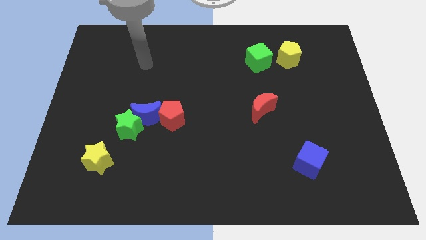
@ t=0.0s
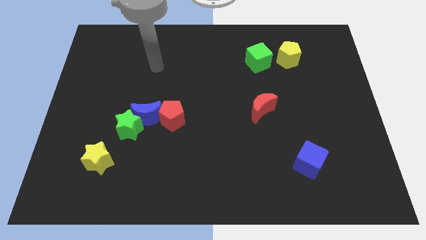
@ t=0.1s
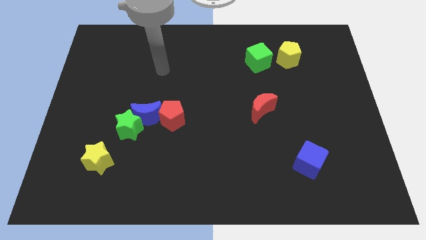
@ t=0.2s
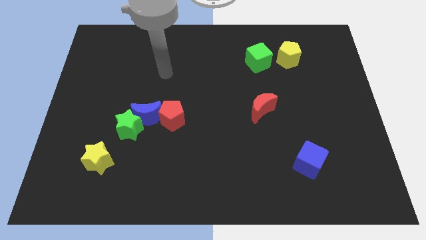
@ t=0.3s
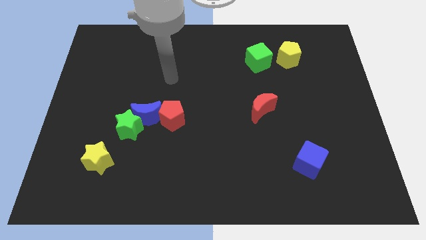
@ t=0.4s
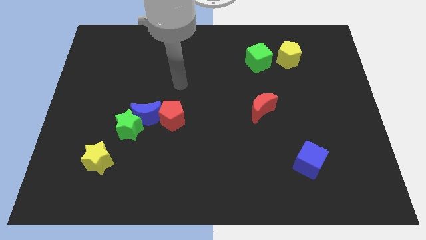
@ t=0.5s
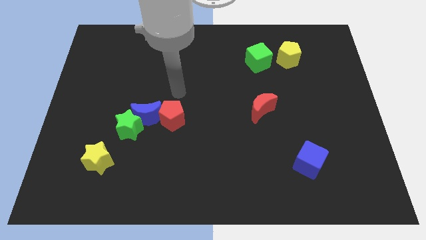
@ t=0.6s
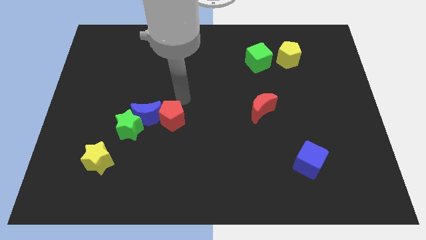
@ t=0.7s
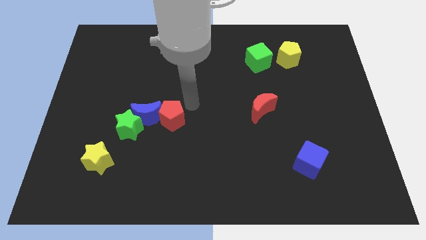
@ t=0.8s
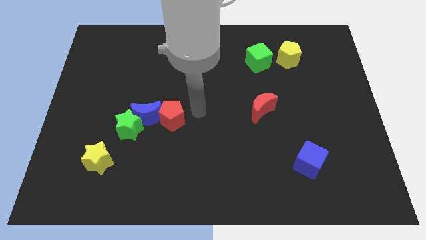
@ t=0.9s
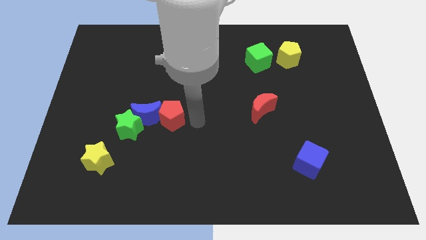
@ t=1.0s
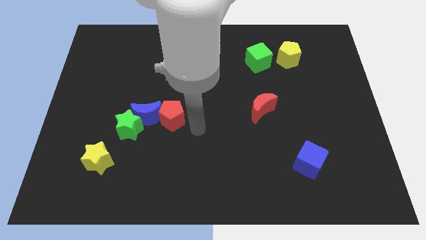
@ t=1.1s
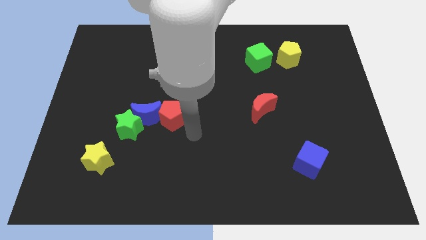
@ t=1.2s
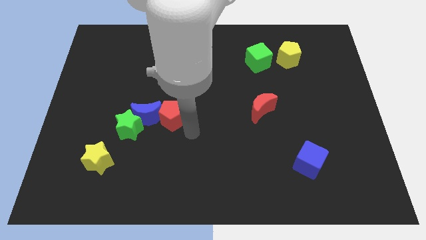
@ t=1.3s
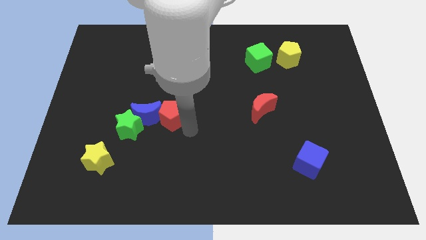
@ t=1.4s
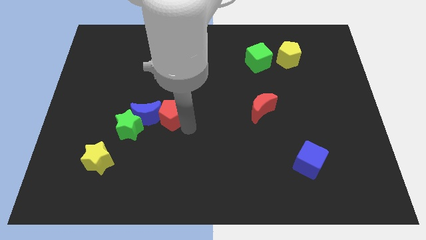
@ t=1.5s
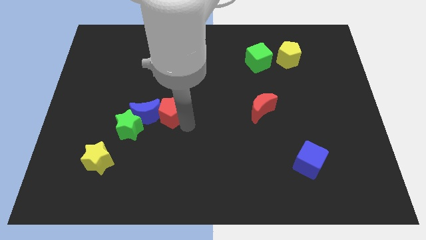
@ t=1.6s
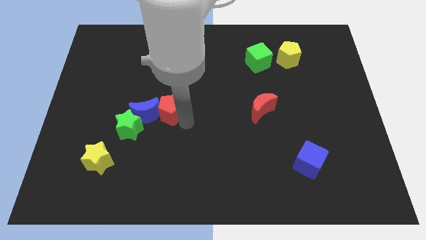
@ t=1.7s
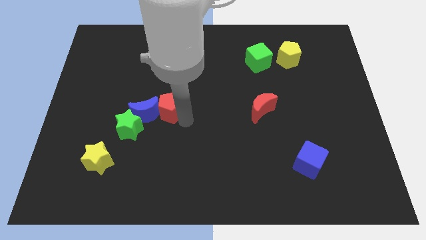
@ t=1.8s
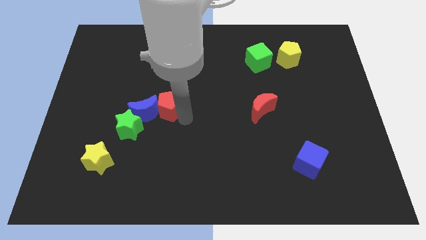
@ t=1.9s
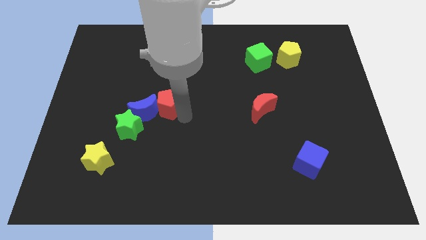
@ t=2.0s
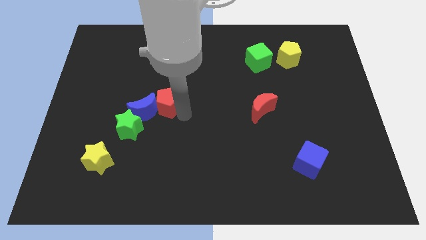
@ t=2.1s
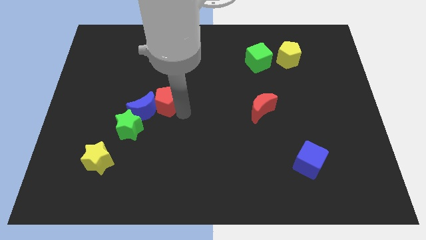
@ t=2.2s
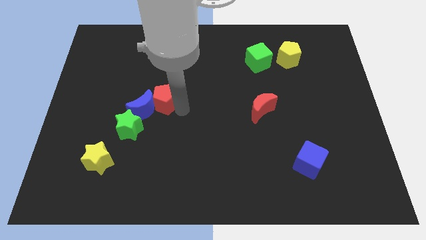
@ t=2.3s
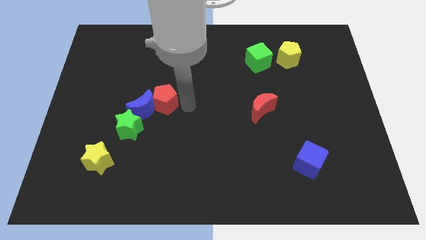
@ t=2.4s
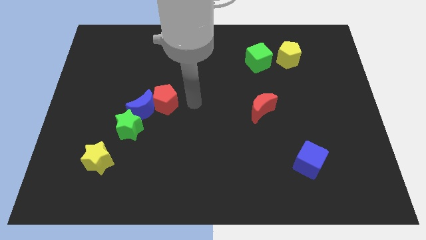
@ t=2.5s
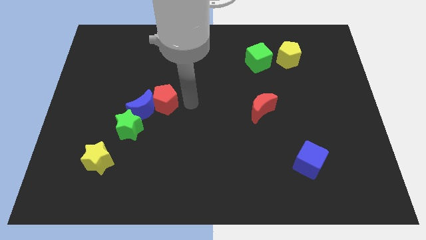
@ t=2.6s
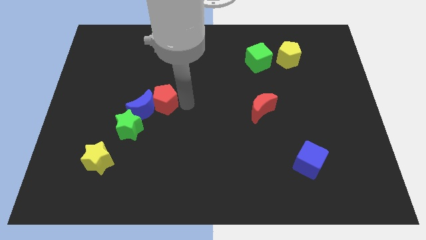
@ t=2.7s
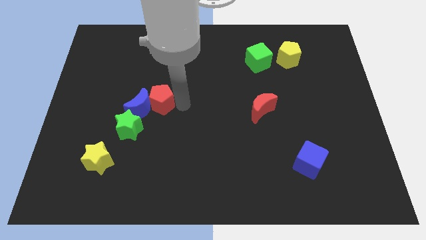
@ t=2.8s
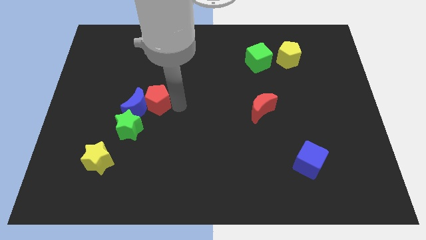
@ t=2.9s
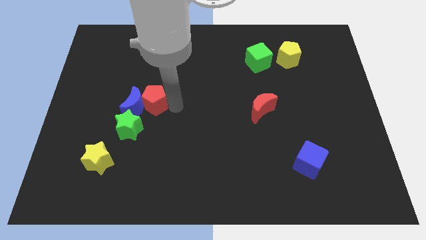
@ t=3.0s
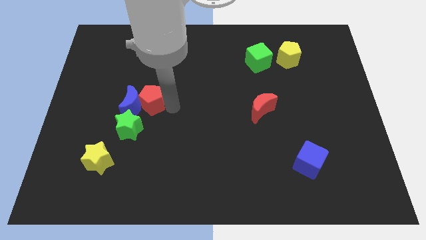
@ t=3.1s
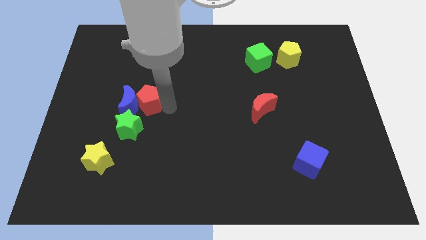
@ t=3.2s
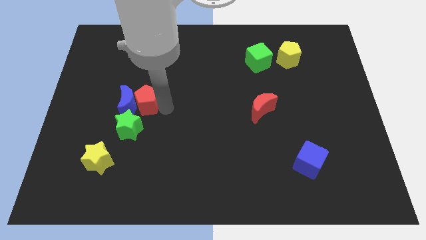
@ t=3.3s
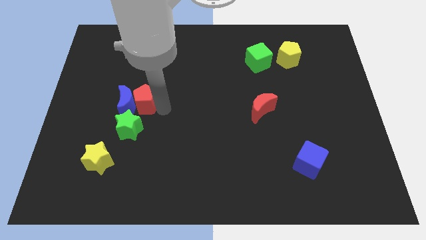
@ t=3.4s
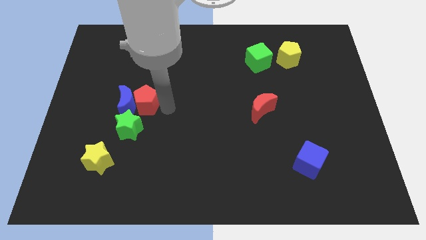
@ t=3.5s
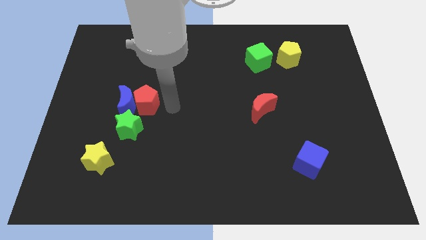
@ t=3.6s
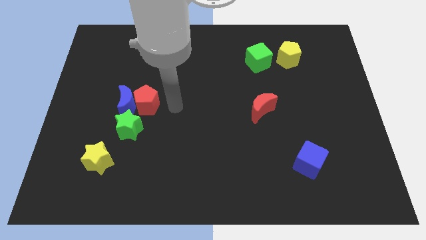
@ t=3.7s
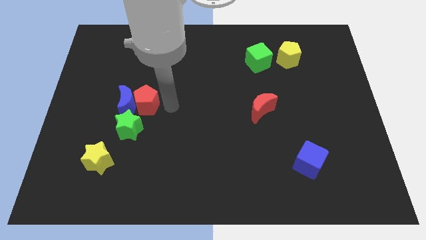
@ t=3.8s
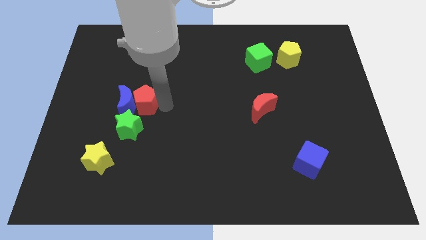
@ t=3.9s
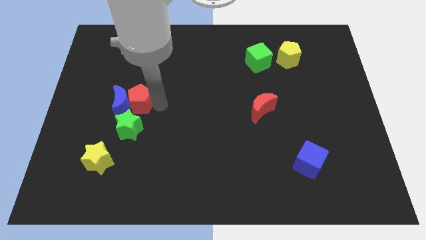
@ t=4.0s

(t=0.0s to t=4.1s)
slightly slide the red pentagon to the left

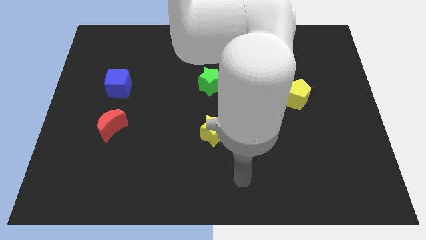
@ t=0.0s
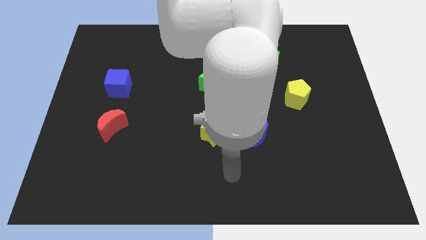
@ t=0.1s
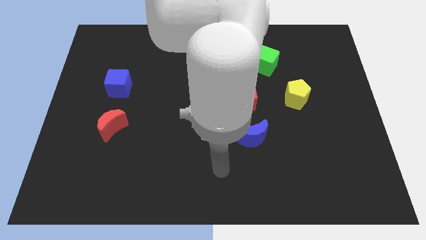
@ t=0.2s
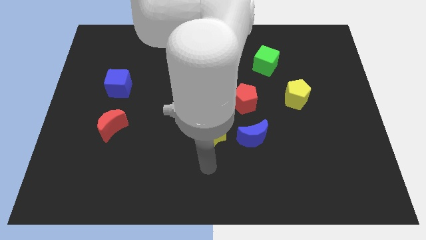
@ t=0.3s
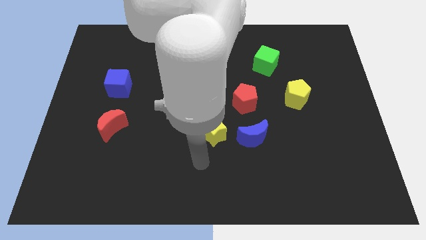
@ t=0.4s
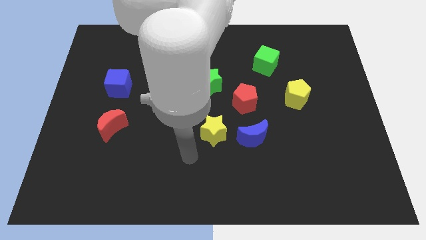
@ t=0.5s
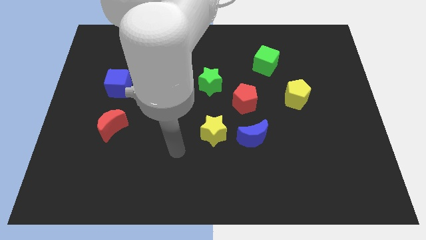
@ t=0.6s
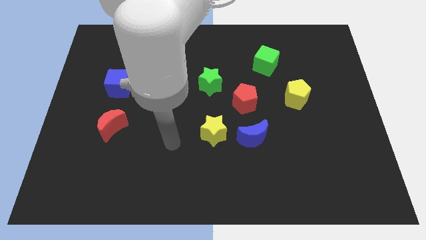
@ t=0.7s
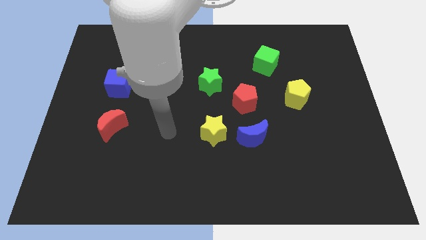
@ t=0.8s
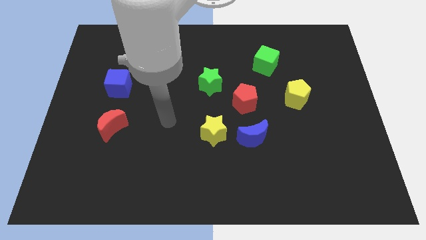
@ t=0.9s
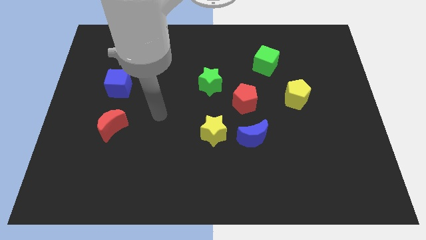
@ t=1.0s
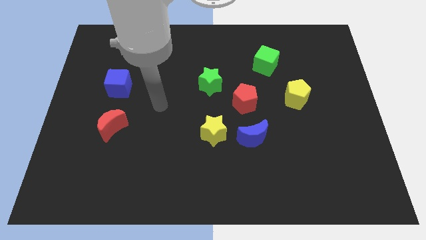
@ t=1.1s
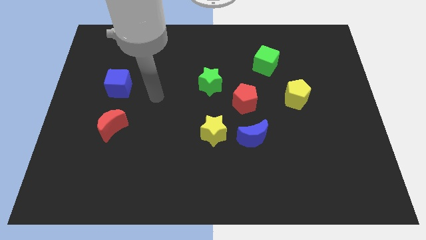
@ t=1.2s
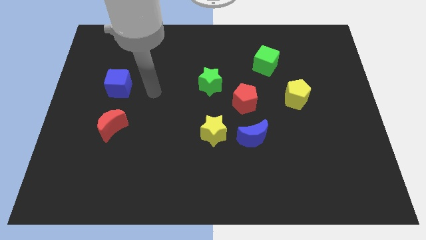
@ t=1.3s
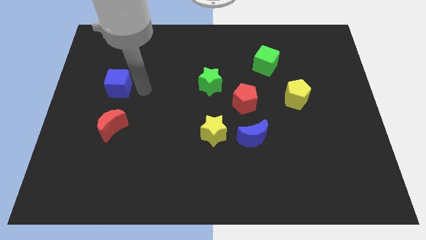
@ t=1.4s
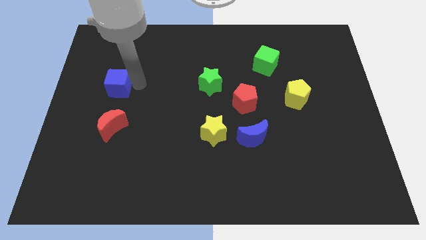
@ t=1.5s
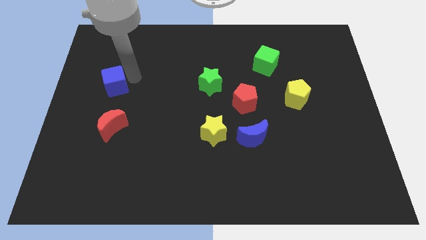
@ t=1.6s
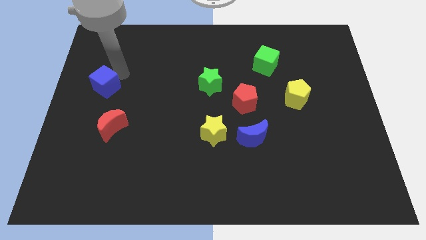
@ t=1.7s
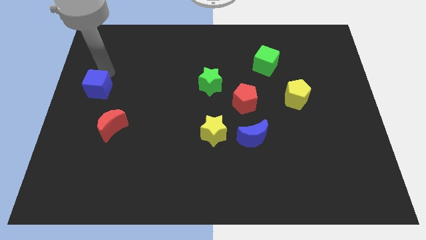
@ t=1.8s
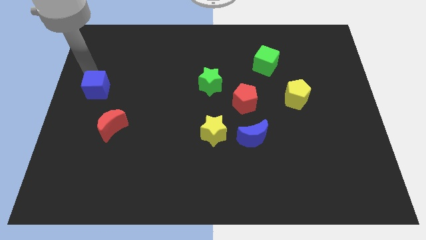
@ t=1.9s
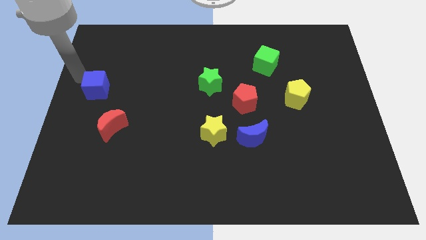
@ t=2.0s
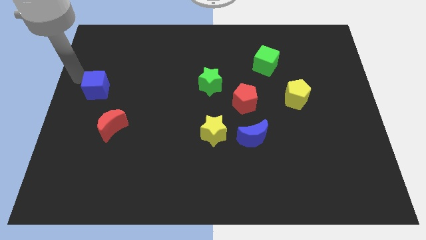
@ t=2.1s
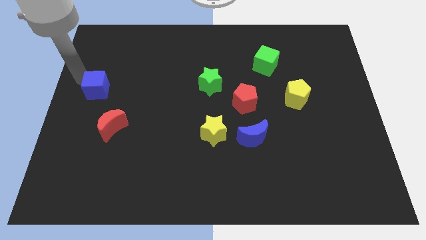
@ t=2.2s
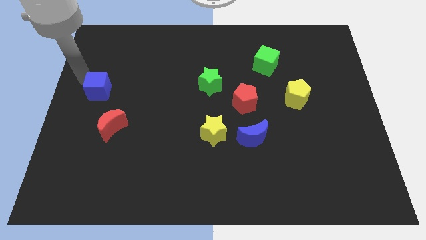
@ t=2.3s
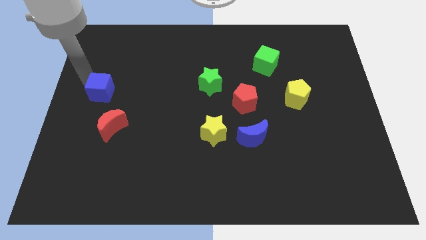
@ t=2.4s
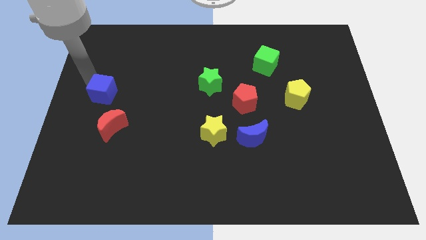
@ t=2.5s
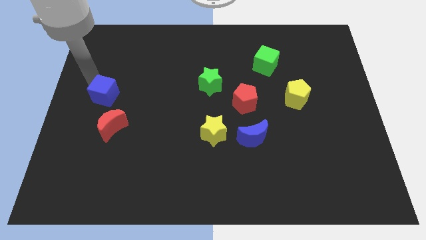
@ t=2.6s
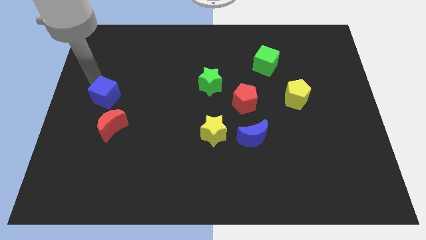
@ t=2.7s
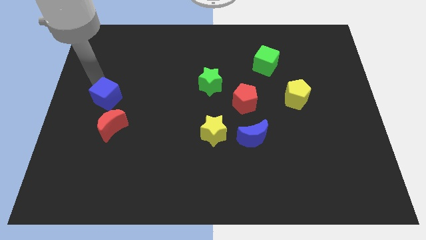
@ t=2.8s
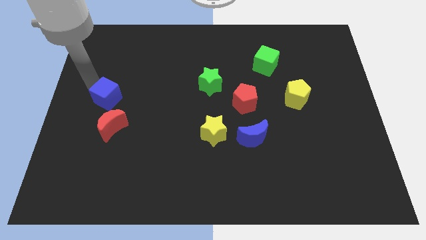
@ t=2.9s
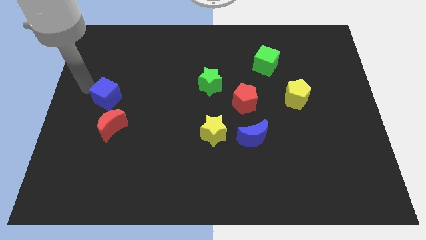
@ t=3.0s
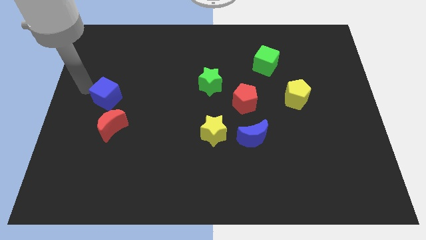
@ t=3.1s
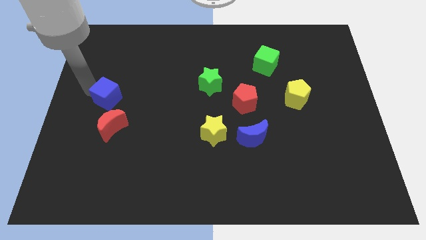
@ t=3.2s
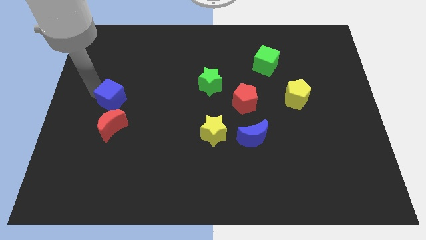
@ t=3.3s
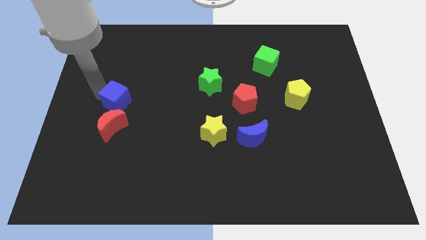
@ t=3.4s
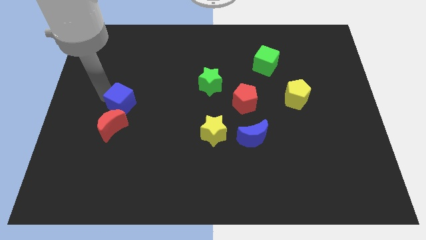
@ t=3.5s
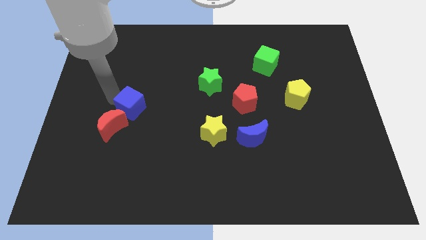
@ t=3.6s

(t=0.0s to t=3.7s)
slightly move the blue cube down and then right
